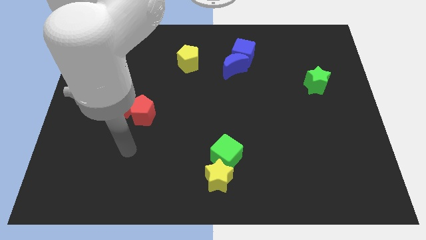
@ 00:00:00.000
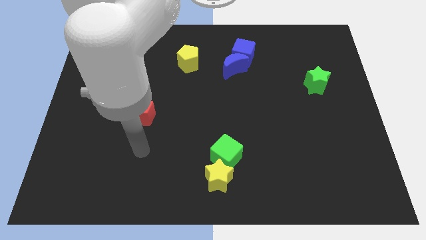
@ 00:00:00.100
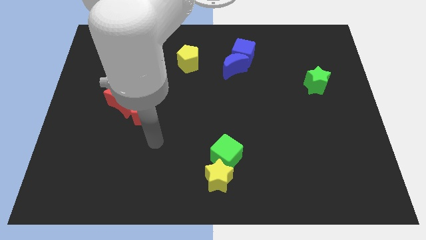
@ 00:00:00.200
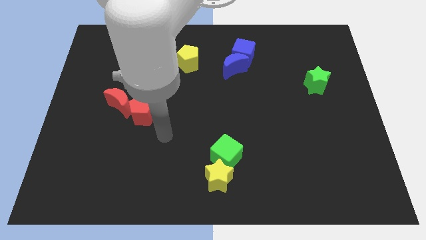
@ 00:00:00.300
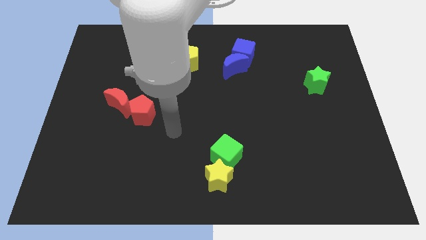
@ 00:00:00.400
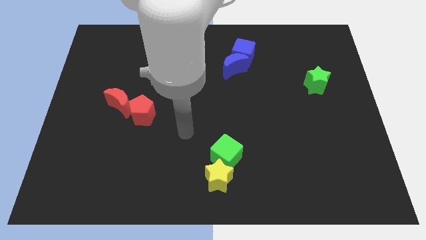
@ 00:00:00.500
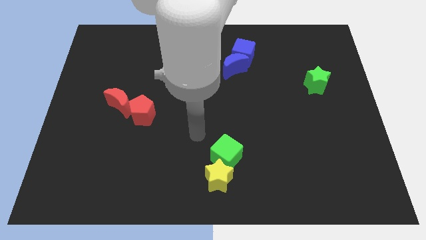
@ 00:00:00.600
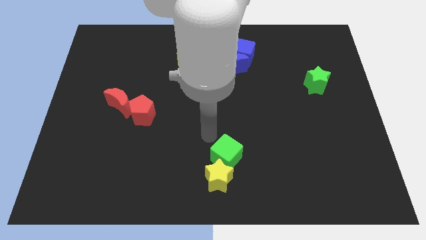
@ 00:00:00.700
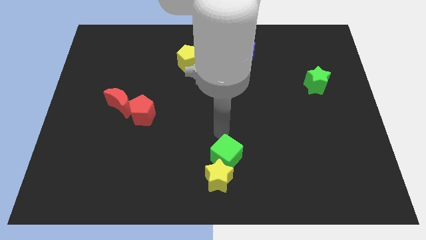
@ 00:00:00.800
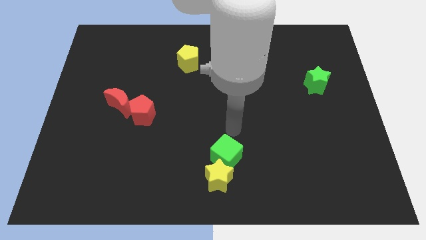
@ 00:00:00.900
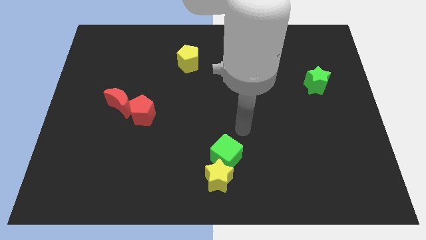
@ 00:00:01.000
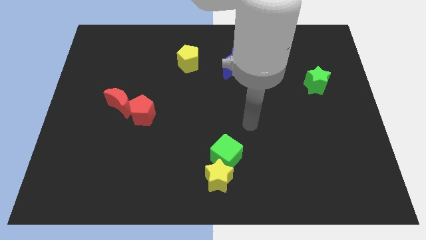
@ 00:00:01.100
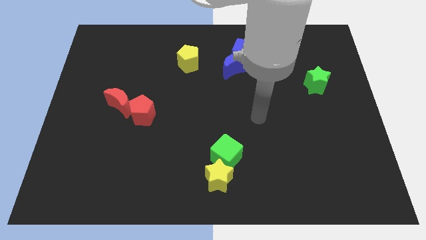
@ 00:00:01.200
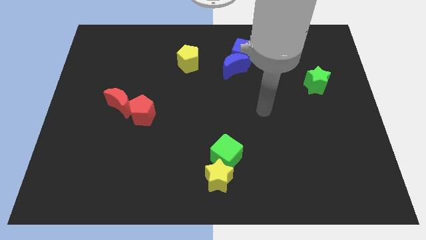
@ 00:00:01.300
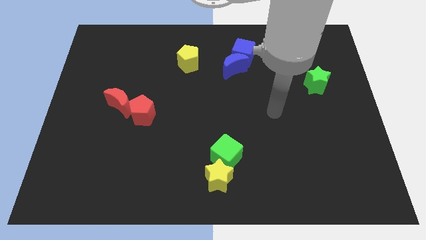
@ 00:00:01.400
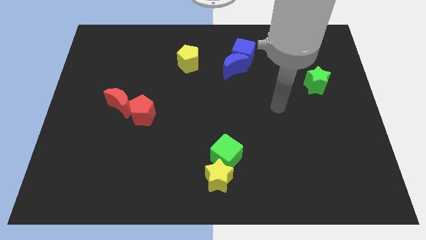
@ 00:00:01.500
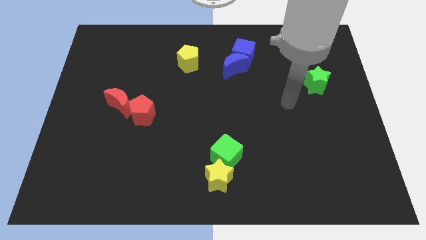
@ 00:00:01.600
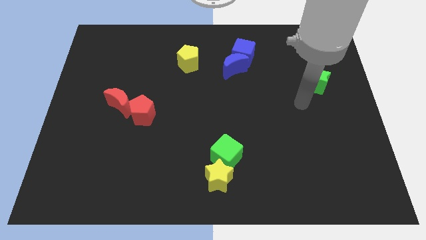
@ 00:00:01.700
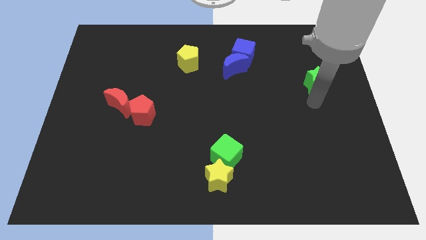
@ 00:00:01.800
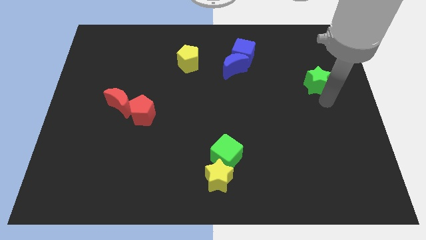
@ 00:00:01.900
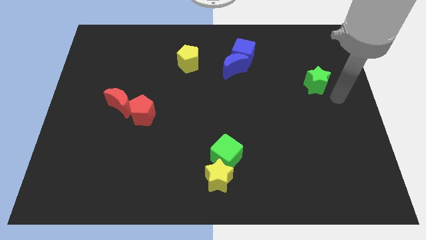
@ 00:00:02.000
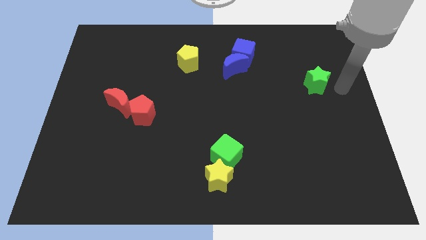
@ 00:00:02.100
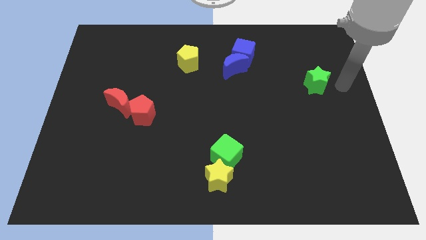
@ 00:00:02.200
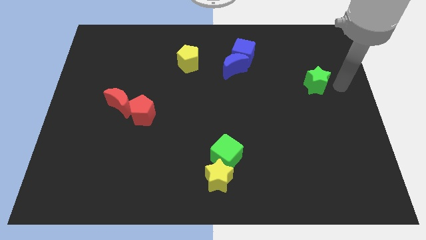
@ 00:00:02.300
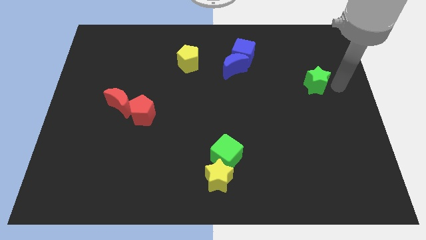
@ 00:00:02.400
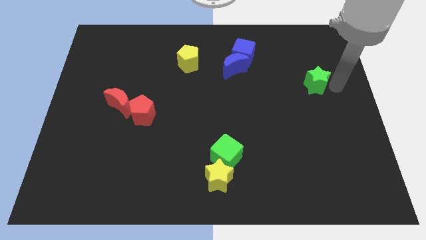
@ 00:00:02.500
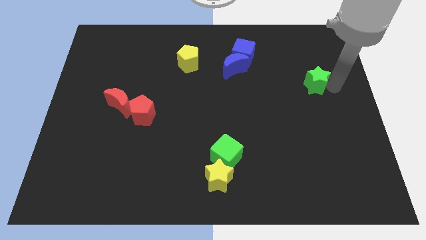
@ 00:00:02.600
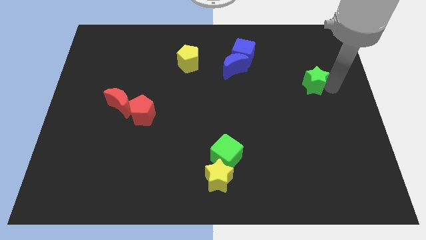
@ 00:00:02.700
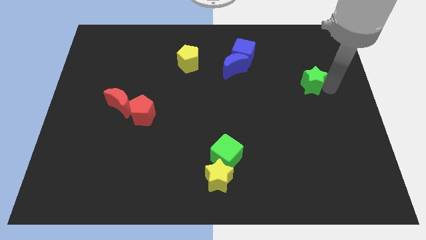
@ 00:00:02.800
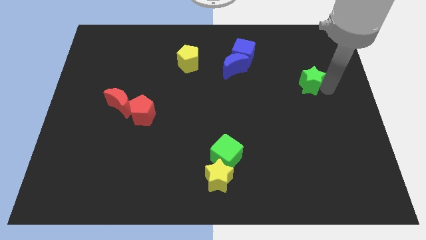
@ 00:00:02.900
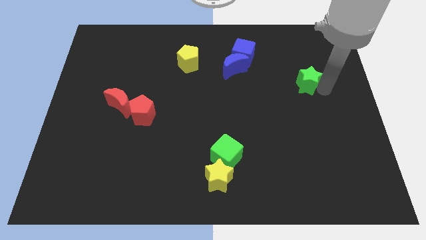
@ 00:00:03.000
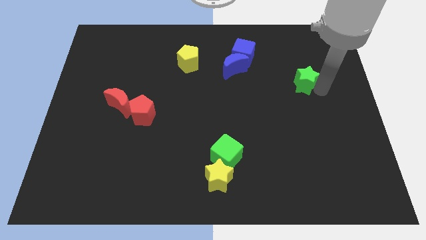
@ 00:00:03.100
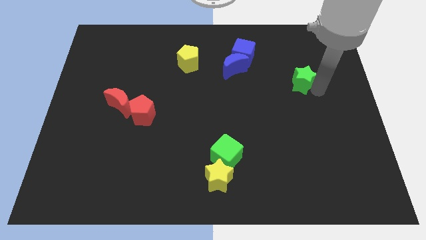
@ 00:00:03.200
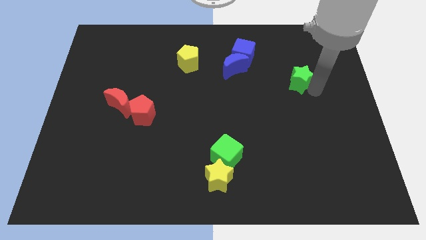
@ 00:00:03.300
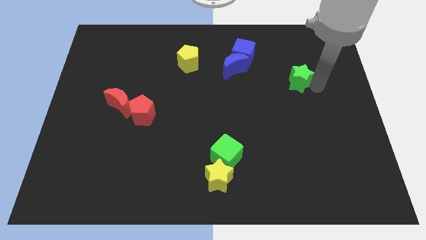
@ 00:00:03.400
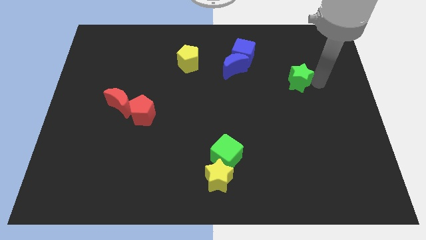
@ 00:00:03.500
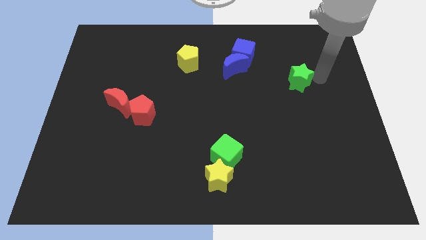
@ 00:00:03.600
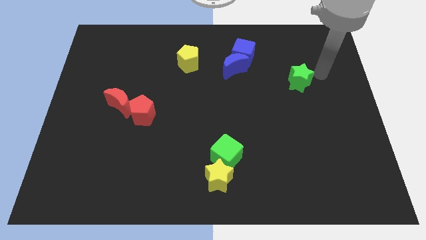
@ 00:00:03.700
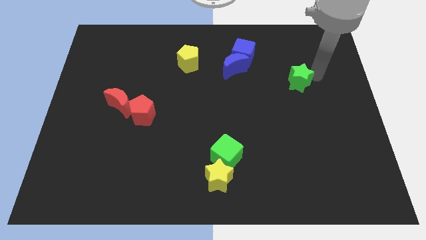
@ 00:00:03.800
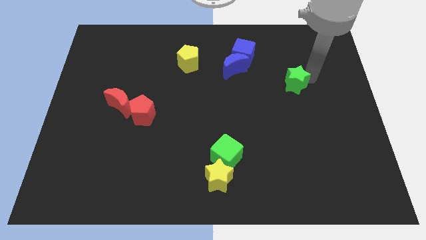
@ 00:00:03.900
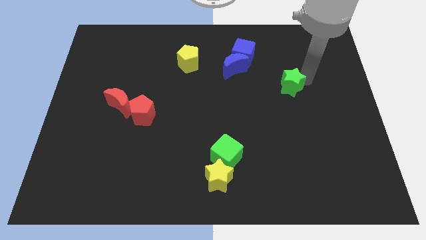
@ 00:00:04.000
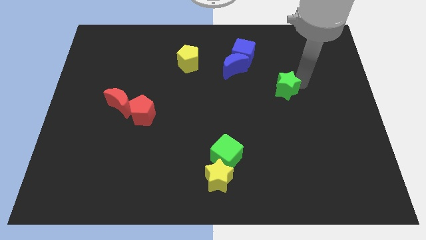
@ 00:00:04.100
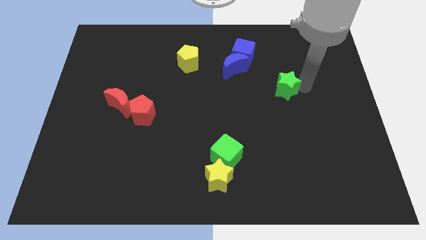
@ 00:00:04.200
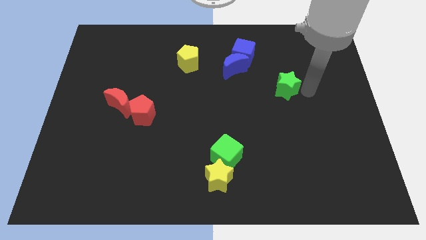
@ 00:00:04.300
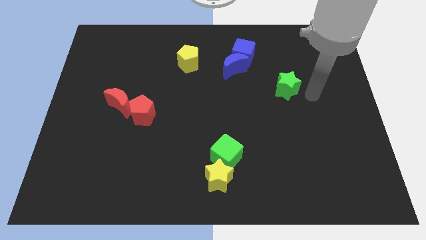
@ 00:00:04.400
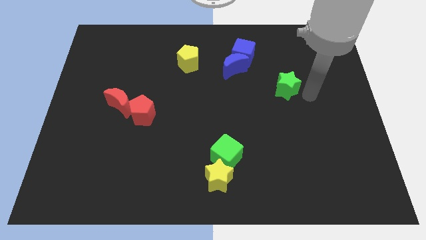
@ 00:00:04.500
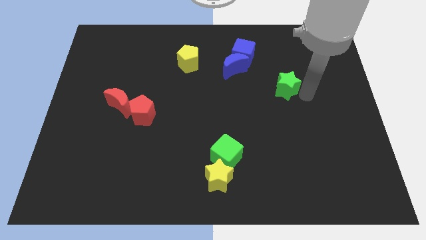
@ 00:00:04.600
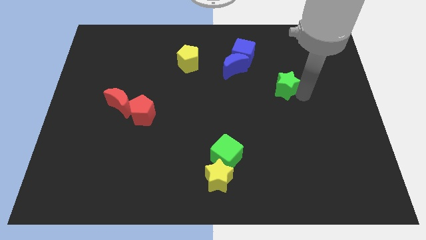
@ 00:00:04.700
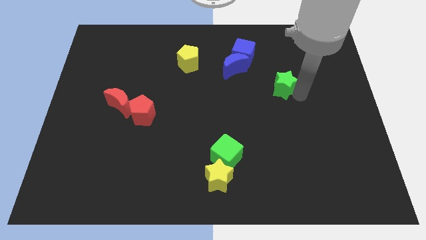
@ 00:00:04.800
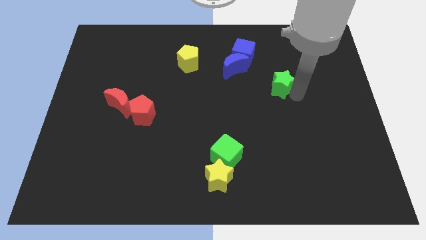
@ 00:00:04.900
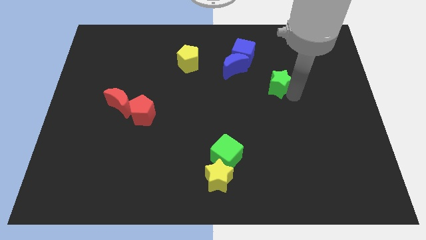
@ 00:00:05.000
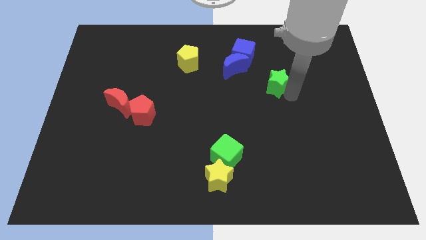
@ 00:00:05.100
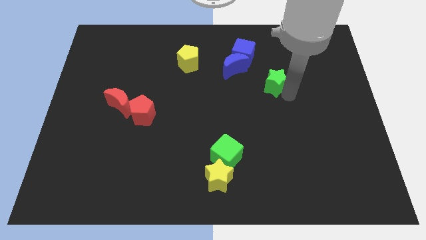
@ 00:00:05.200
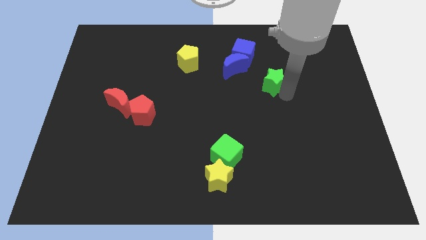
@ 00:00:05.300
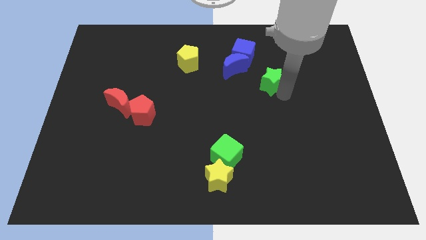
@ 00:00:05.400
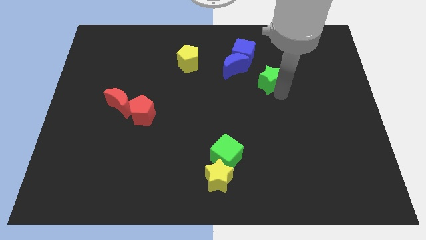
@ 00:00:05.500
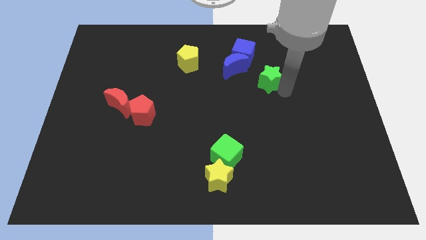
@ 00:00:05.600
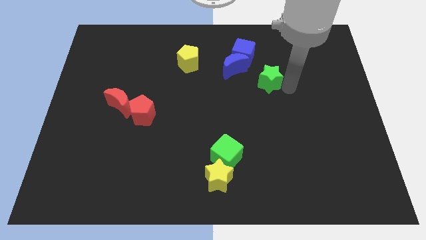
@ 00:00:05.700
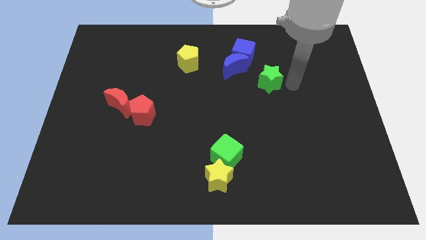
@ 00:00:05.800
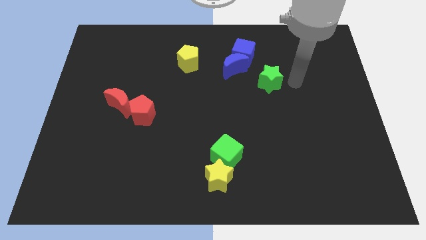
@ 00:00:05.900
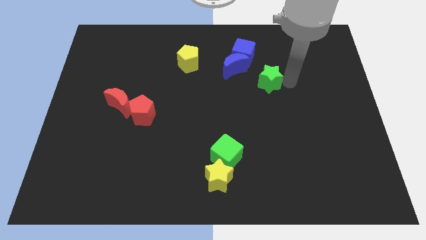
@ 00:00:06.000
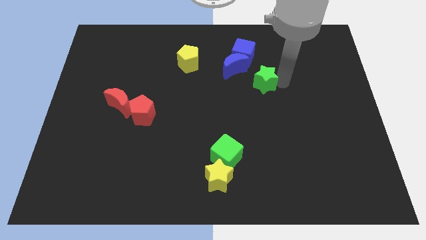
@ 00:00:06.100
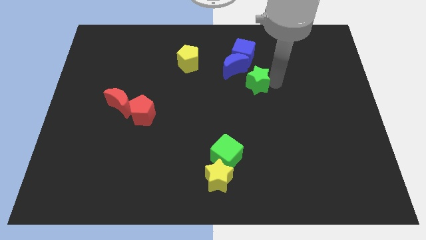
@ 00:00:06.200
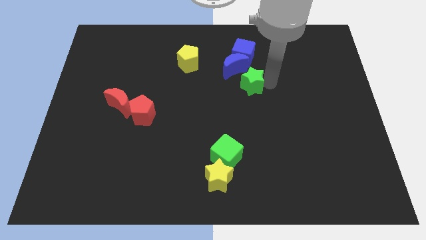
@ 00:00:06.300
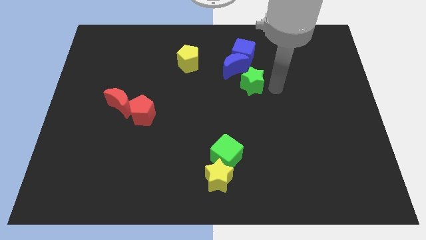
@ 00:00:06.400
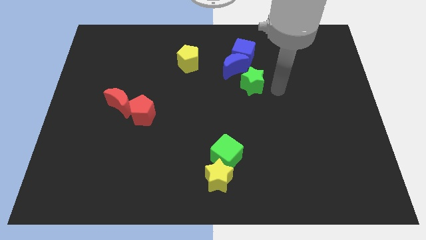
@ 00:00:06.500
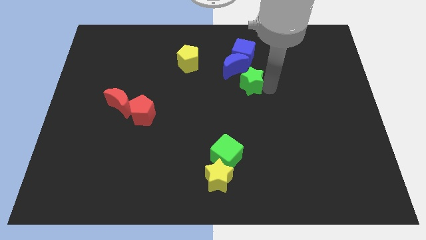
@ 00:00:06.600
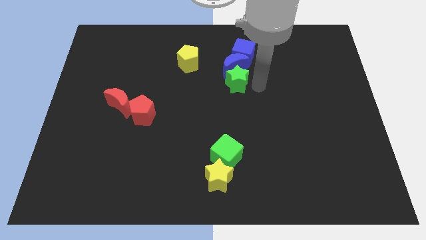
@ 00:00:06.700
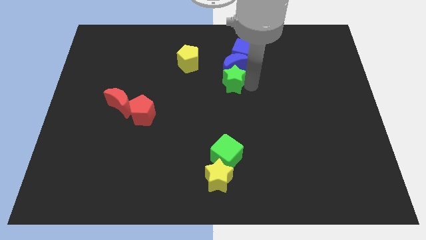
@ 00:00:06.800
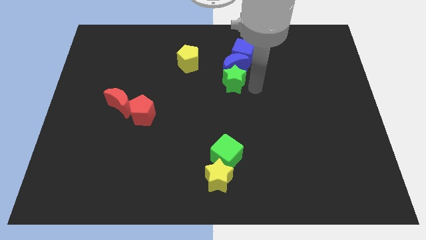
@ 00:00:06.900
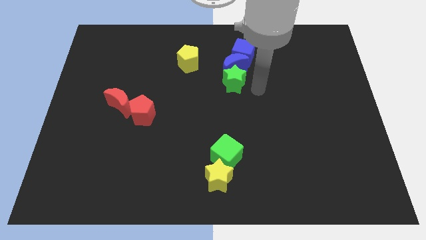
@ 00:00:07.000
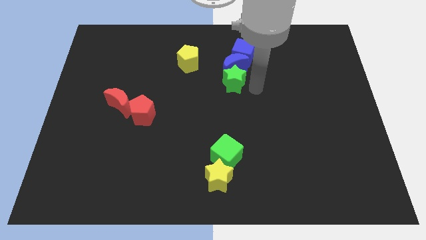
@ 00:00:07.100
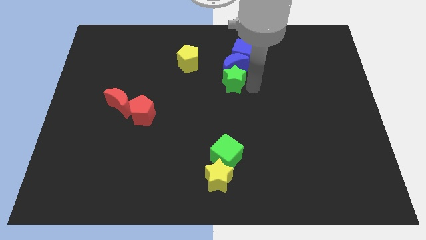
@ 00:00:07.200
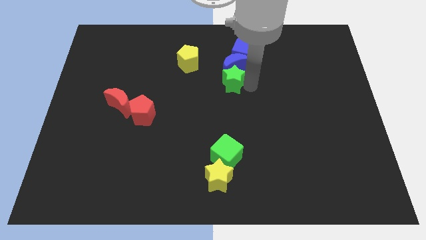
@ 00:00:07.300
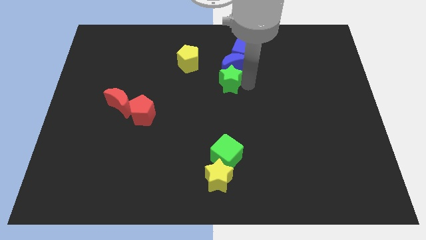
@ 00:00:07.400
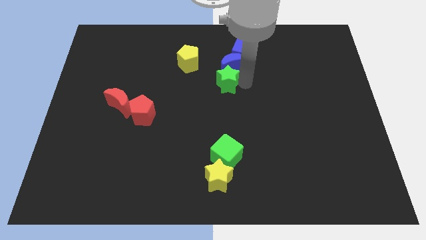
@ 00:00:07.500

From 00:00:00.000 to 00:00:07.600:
slide the green star to the bottom right side of the yellow pentagon
